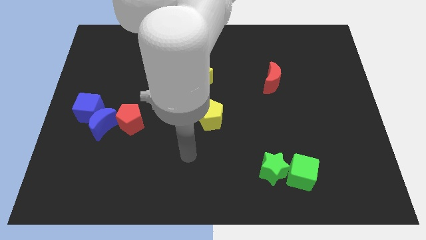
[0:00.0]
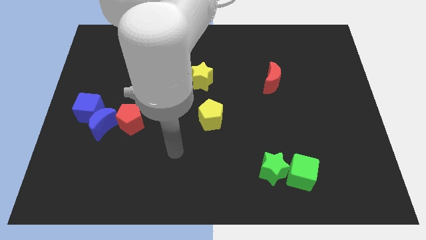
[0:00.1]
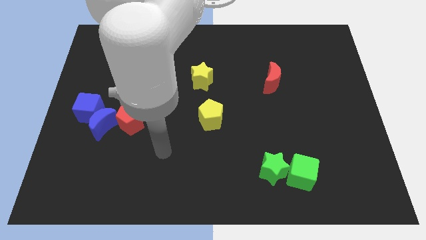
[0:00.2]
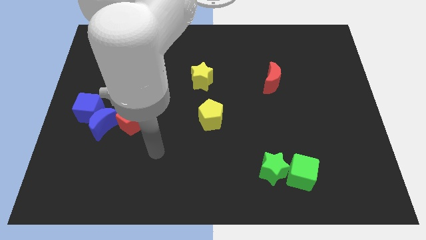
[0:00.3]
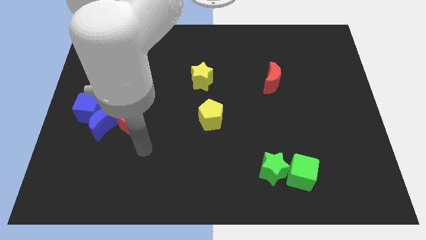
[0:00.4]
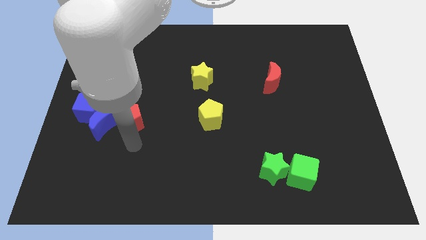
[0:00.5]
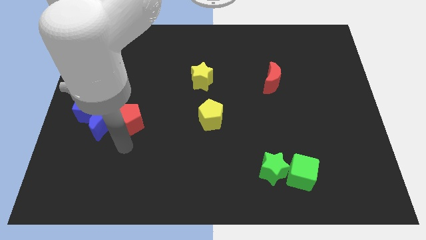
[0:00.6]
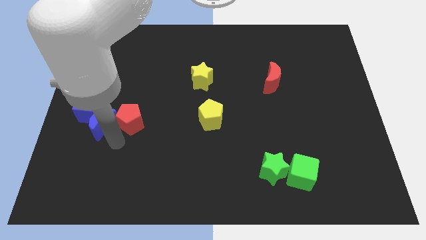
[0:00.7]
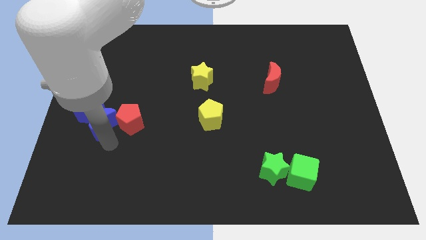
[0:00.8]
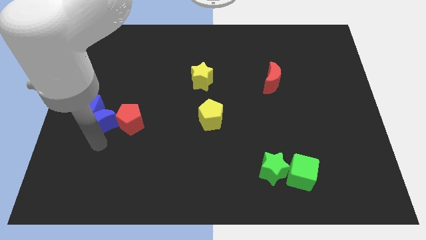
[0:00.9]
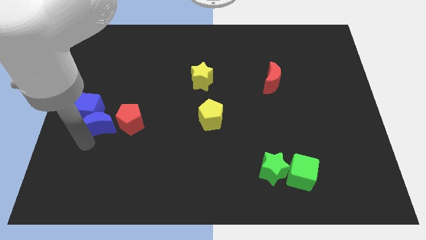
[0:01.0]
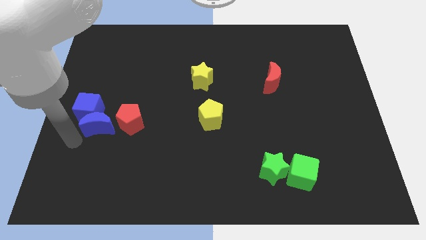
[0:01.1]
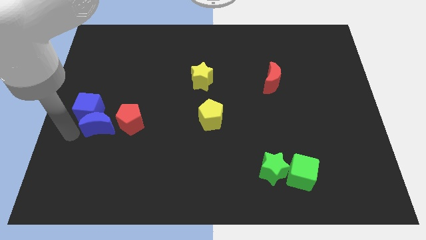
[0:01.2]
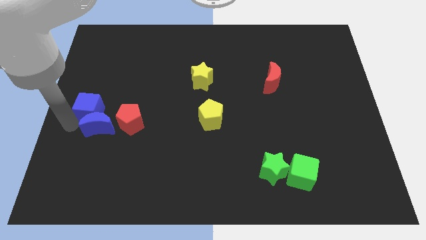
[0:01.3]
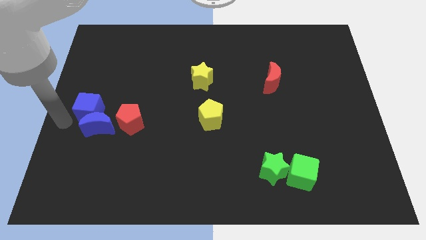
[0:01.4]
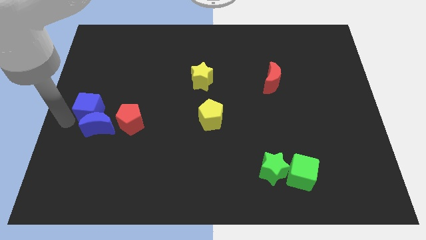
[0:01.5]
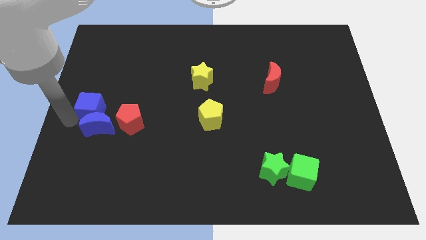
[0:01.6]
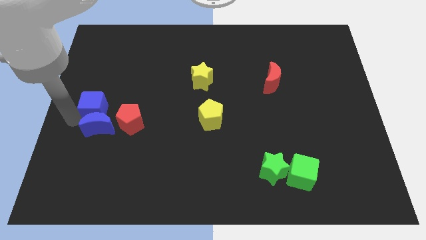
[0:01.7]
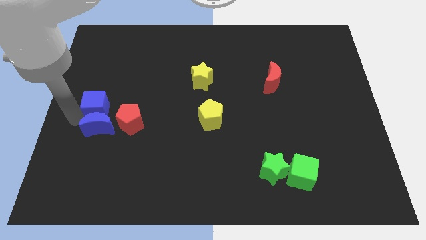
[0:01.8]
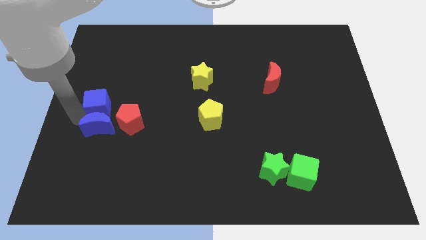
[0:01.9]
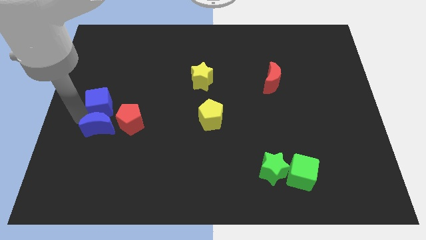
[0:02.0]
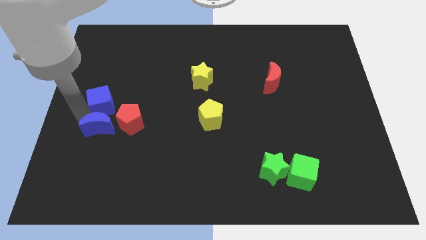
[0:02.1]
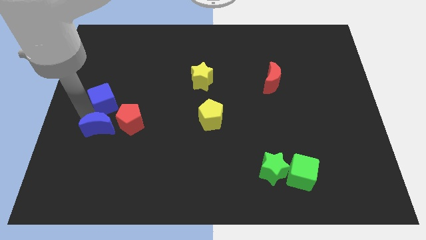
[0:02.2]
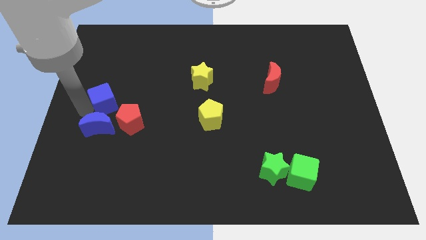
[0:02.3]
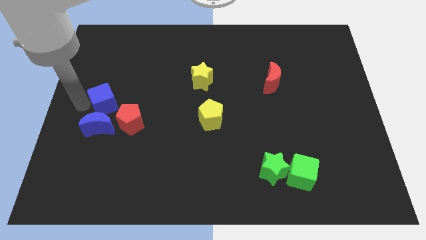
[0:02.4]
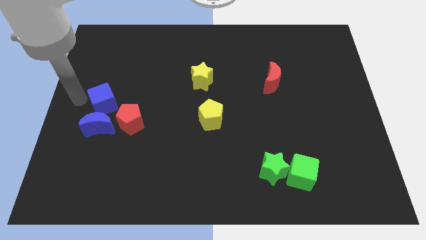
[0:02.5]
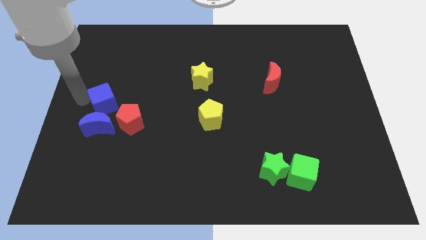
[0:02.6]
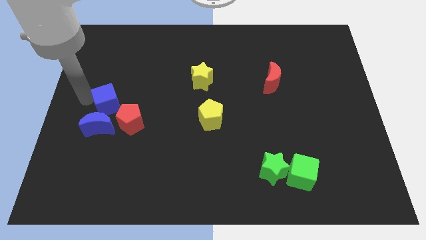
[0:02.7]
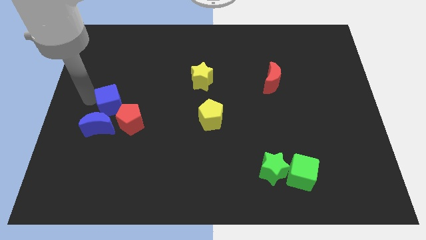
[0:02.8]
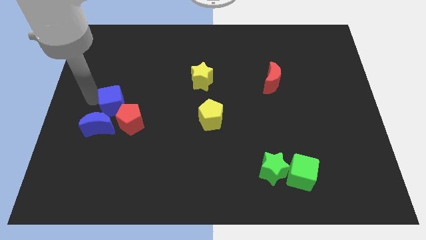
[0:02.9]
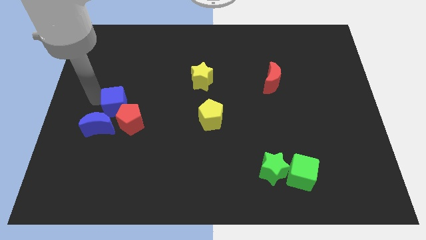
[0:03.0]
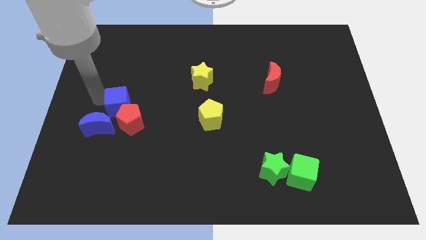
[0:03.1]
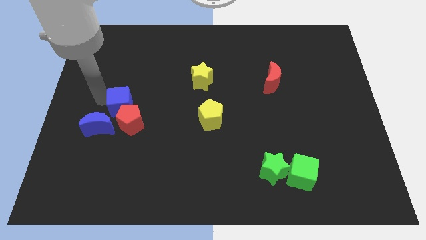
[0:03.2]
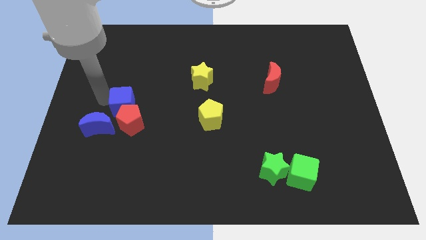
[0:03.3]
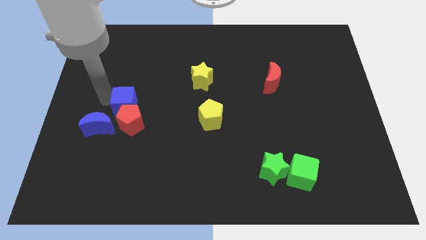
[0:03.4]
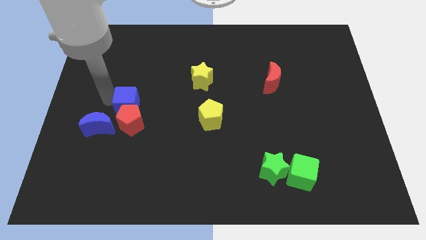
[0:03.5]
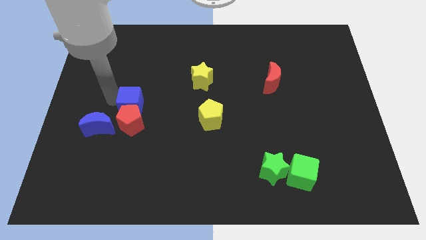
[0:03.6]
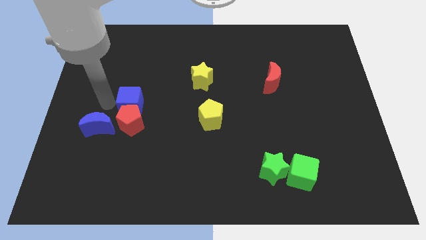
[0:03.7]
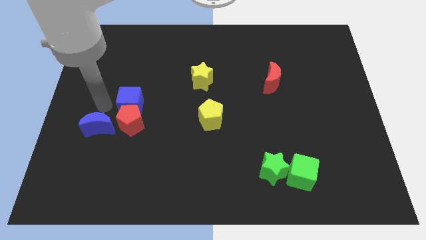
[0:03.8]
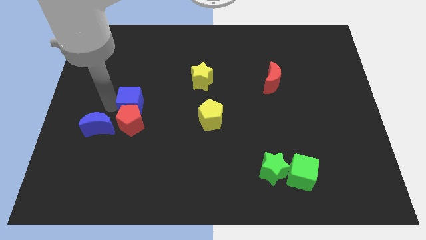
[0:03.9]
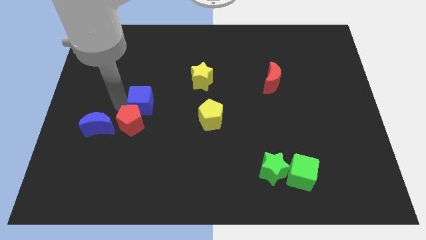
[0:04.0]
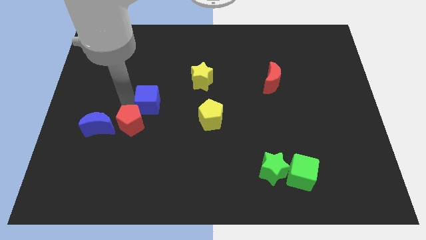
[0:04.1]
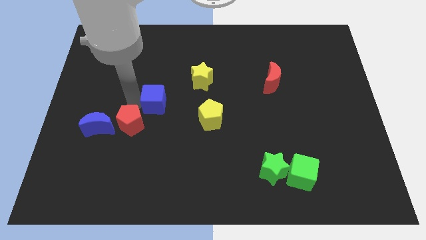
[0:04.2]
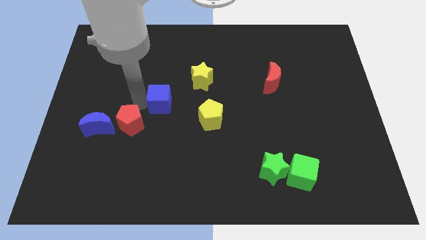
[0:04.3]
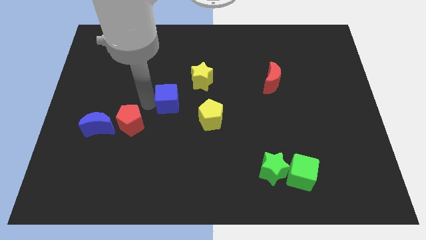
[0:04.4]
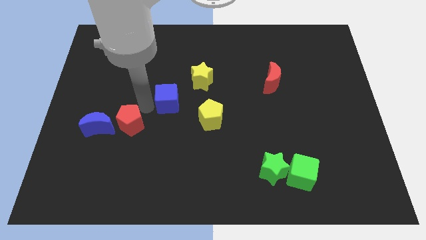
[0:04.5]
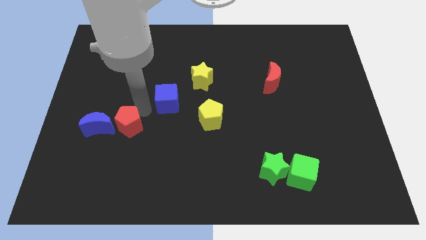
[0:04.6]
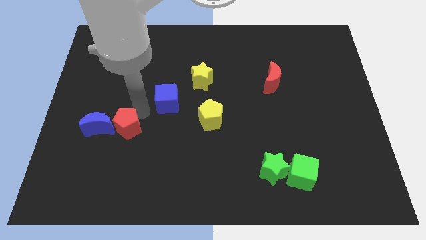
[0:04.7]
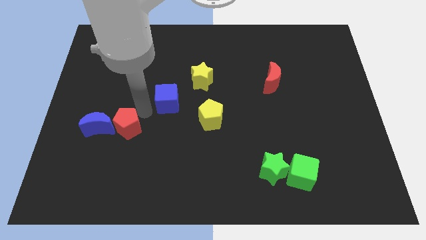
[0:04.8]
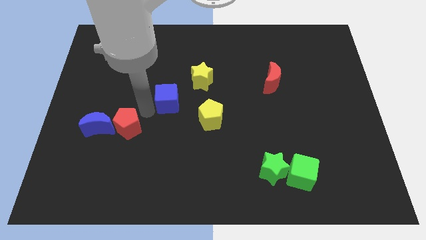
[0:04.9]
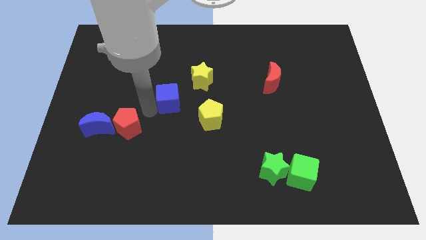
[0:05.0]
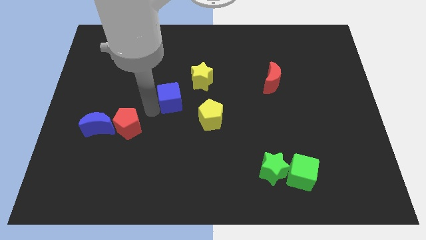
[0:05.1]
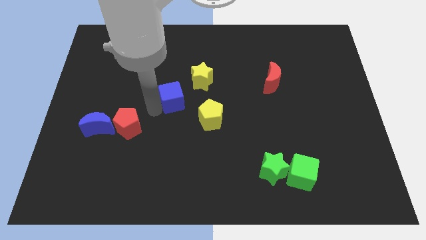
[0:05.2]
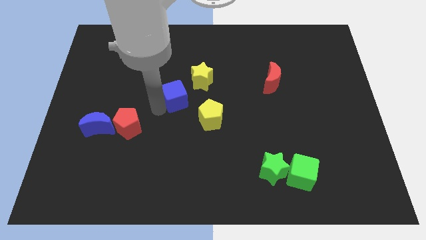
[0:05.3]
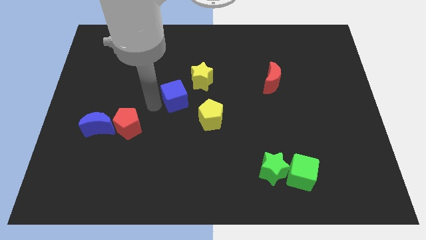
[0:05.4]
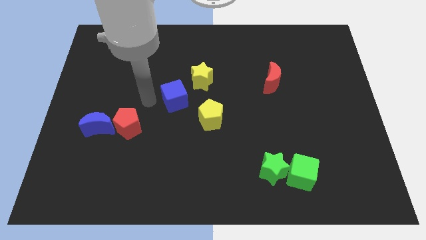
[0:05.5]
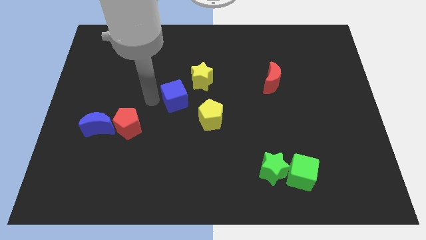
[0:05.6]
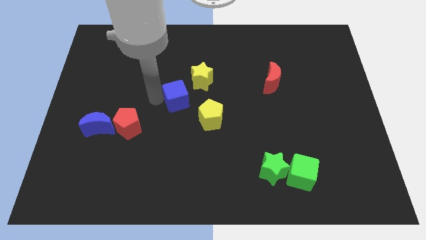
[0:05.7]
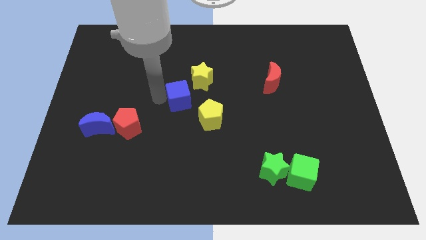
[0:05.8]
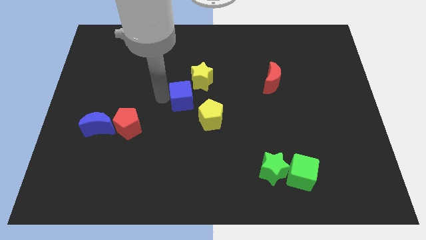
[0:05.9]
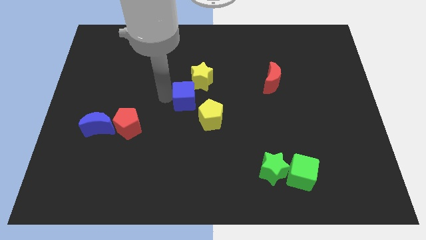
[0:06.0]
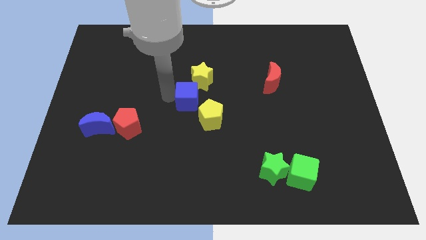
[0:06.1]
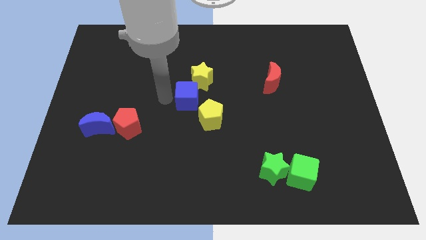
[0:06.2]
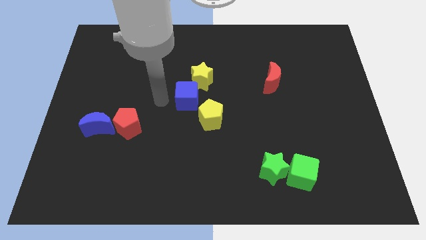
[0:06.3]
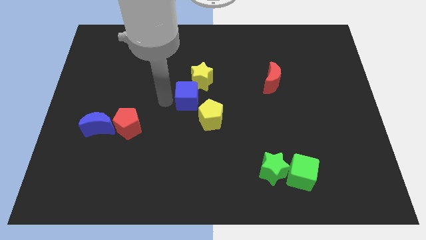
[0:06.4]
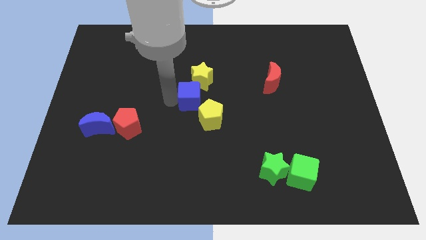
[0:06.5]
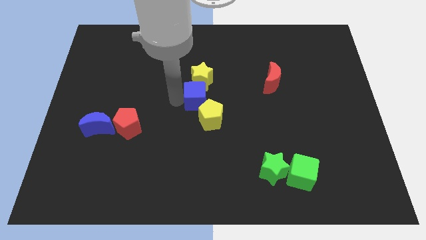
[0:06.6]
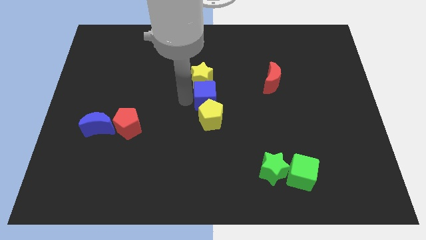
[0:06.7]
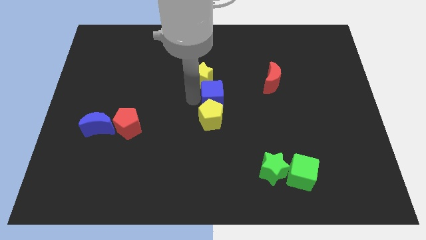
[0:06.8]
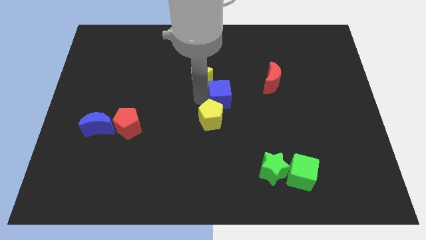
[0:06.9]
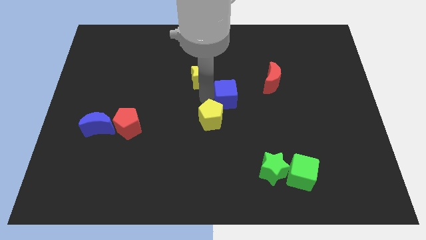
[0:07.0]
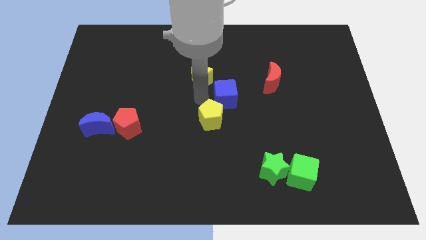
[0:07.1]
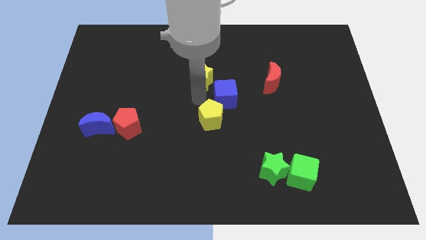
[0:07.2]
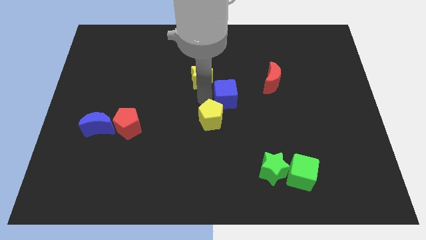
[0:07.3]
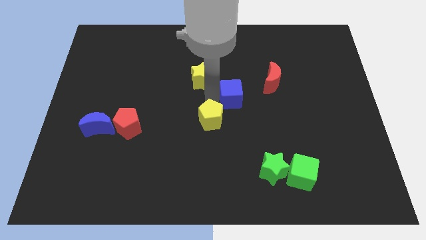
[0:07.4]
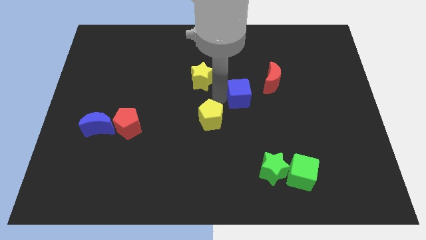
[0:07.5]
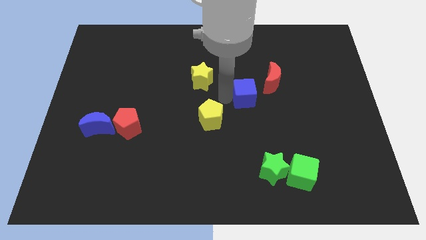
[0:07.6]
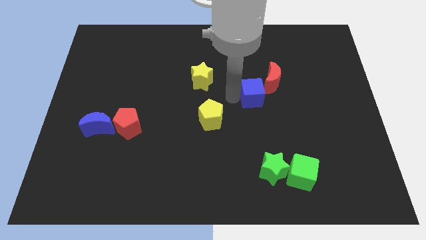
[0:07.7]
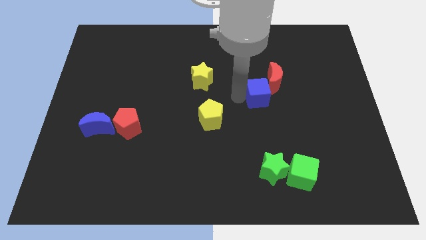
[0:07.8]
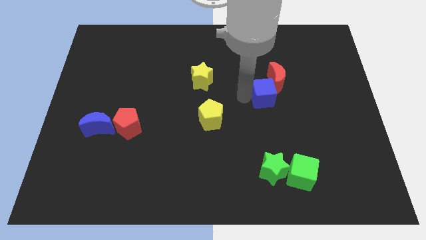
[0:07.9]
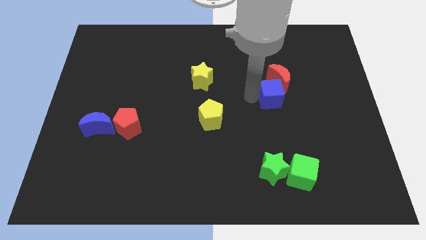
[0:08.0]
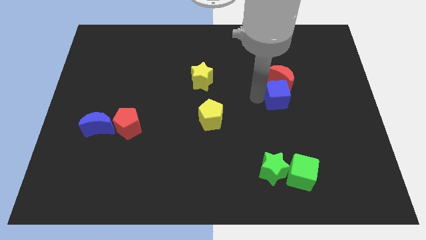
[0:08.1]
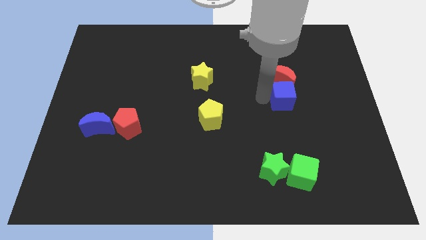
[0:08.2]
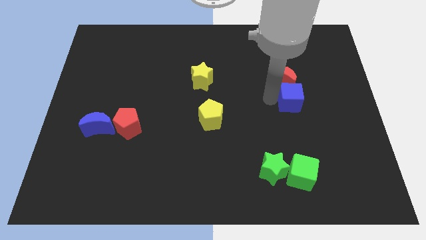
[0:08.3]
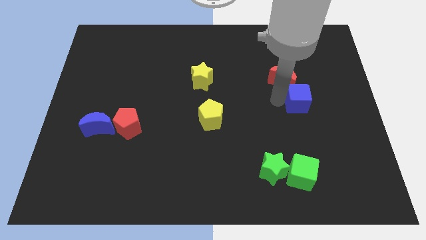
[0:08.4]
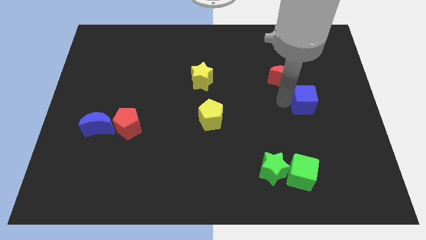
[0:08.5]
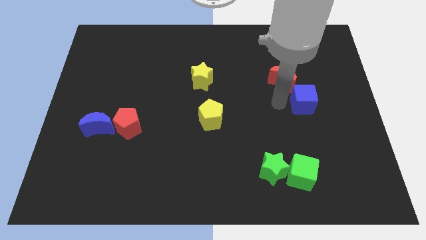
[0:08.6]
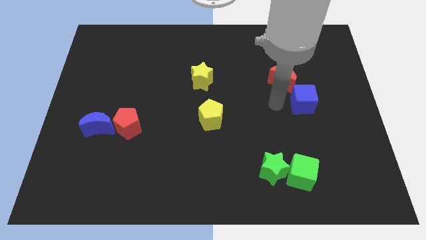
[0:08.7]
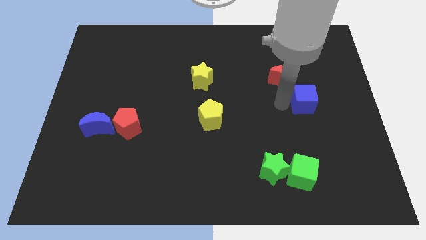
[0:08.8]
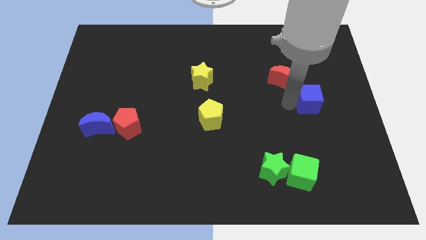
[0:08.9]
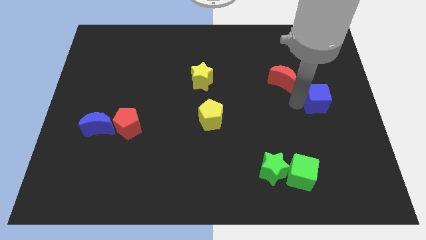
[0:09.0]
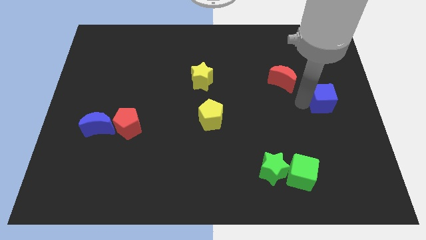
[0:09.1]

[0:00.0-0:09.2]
push the blue cube to the right side
